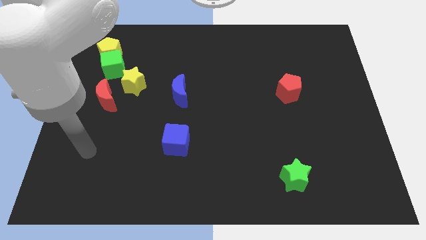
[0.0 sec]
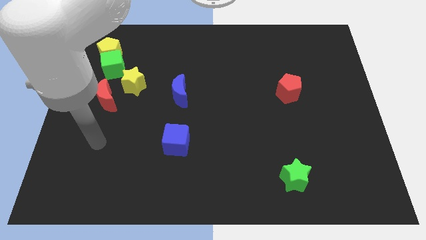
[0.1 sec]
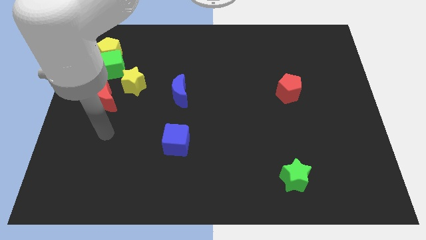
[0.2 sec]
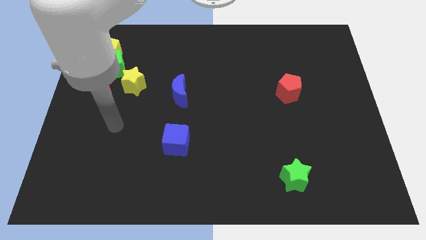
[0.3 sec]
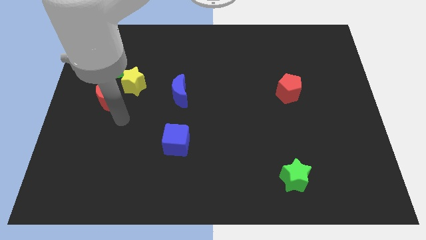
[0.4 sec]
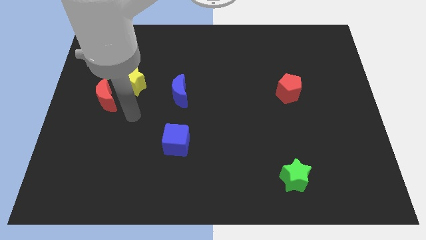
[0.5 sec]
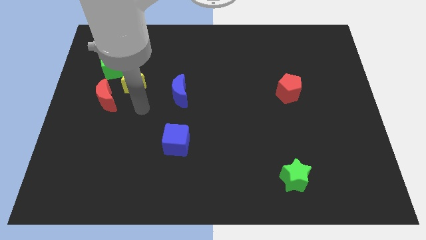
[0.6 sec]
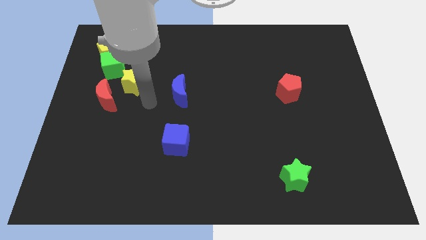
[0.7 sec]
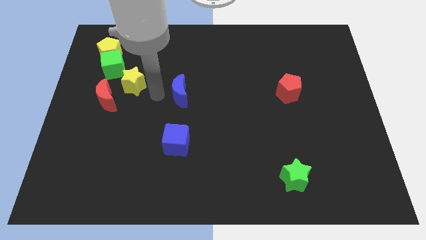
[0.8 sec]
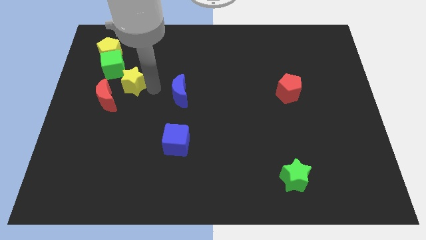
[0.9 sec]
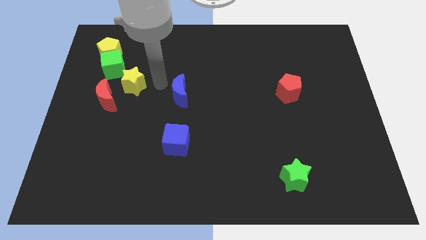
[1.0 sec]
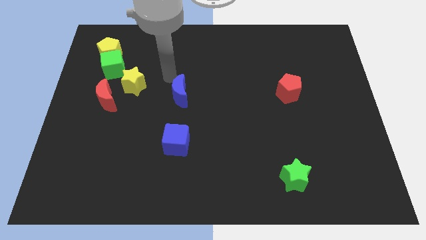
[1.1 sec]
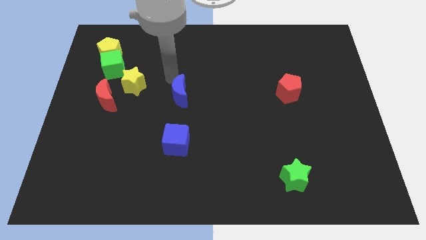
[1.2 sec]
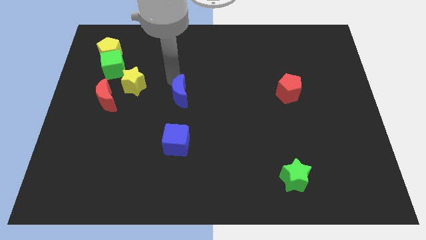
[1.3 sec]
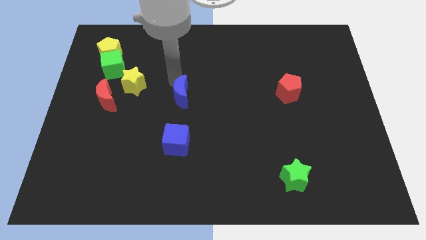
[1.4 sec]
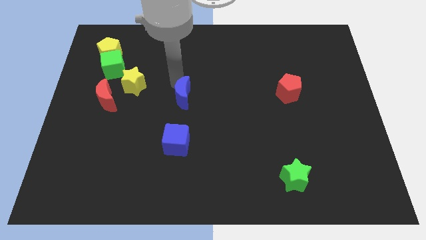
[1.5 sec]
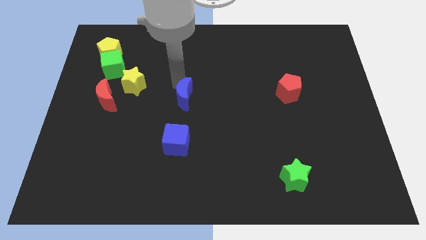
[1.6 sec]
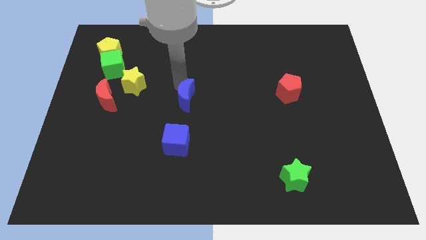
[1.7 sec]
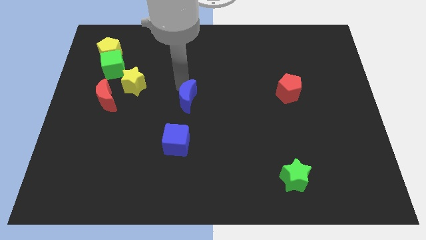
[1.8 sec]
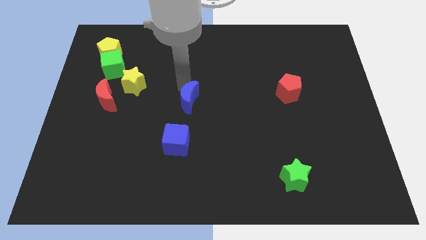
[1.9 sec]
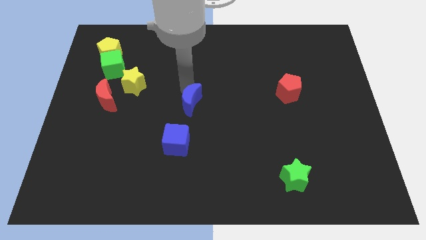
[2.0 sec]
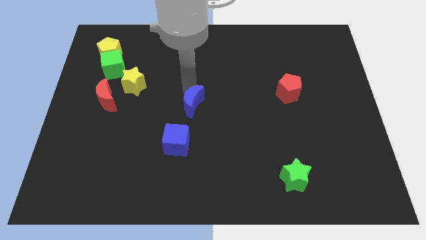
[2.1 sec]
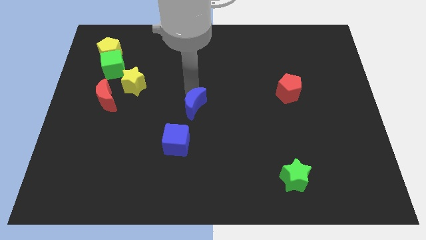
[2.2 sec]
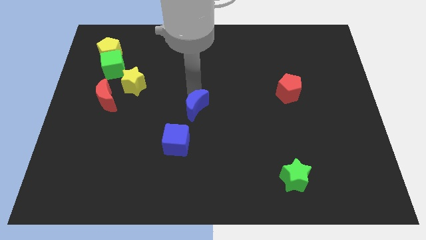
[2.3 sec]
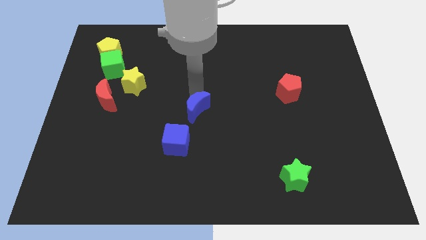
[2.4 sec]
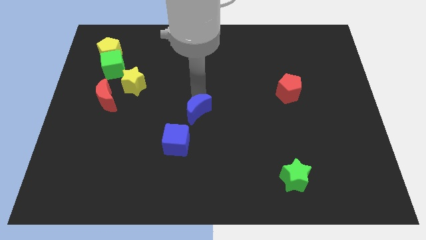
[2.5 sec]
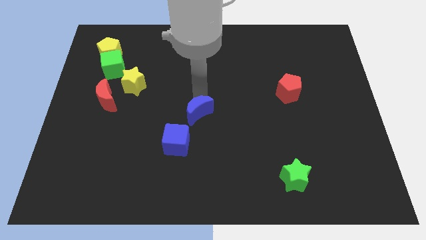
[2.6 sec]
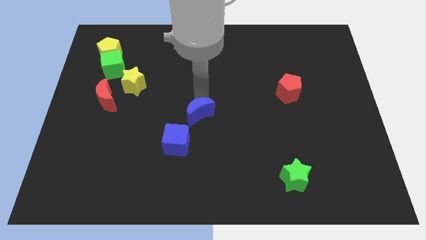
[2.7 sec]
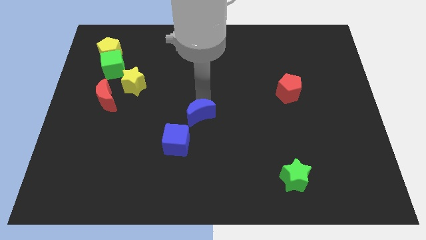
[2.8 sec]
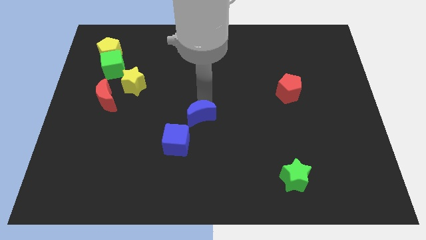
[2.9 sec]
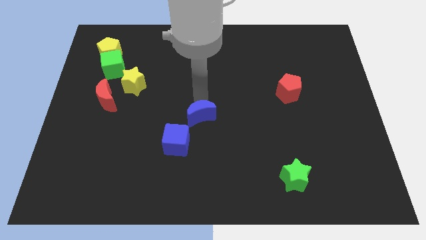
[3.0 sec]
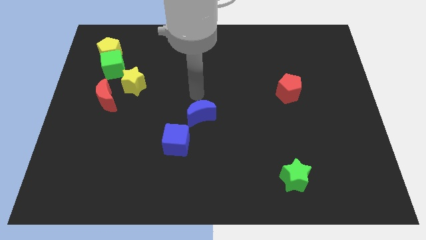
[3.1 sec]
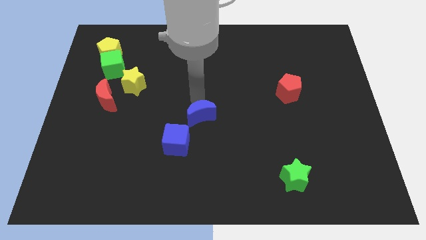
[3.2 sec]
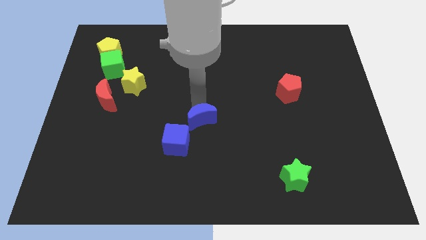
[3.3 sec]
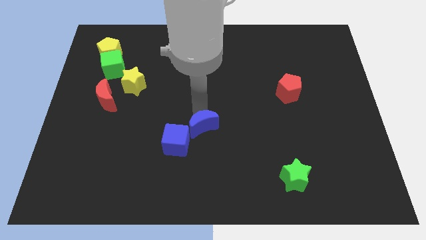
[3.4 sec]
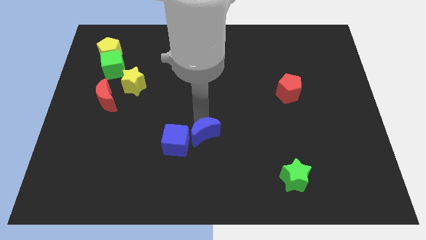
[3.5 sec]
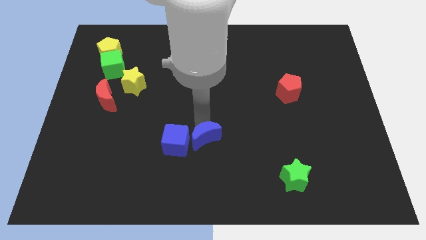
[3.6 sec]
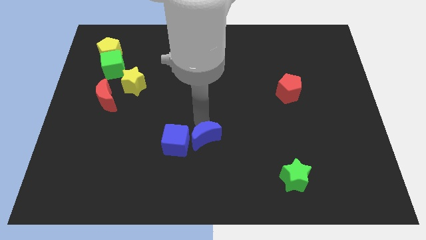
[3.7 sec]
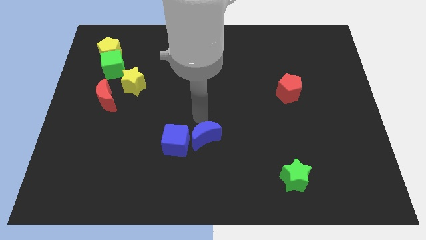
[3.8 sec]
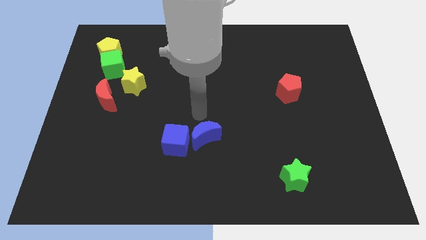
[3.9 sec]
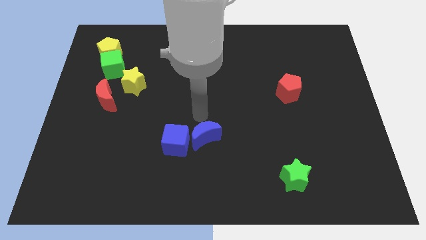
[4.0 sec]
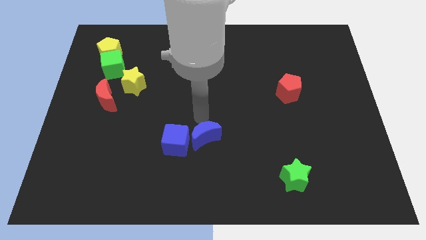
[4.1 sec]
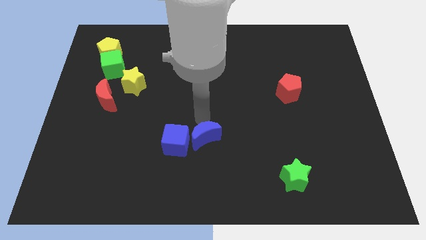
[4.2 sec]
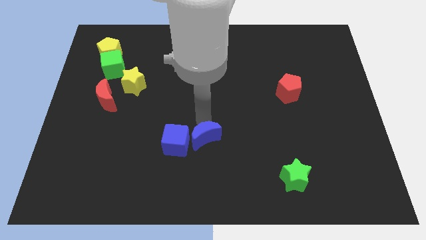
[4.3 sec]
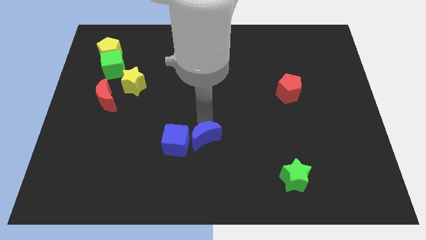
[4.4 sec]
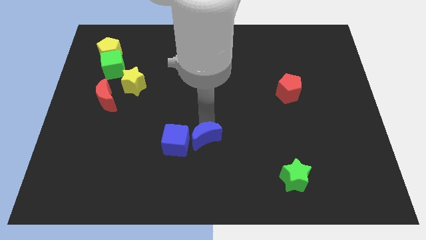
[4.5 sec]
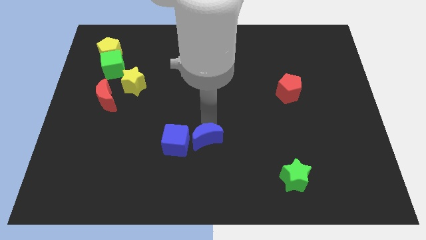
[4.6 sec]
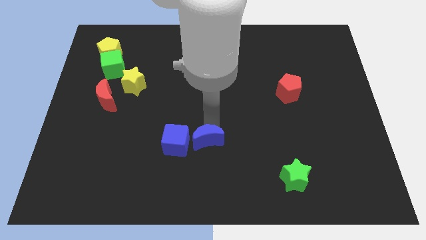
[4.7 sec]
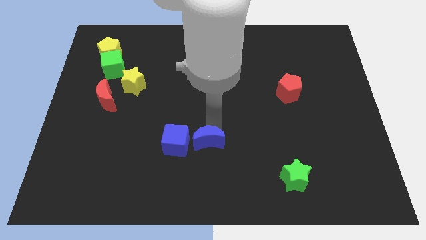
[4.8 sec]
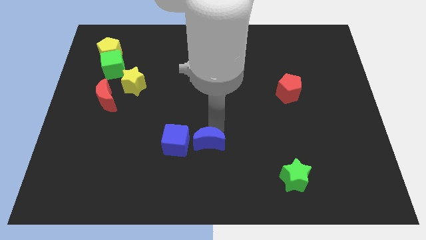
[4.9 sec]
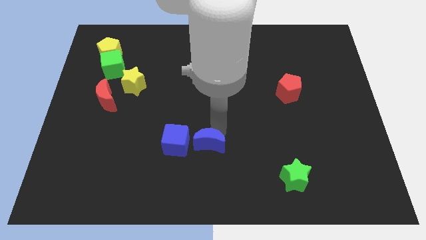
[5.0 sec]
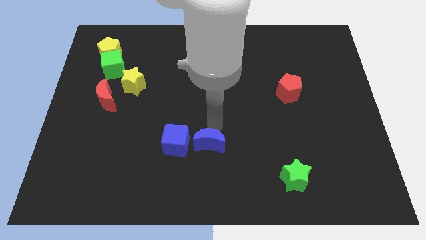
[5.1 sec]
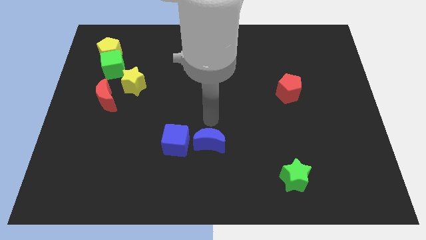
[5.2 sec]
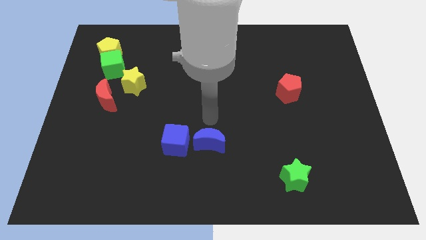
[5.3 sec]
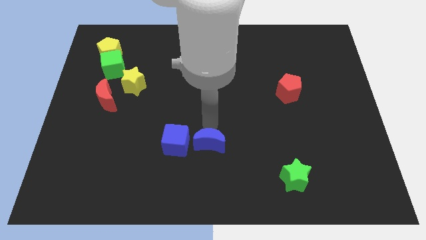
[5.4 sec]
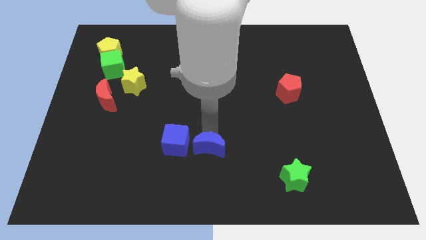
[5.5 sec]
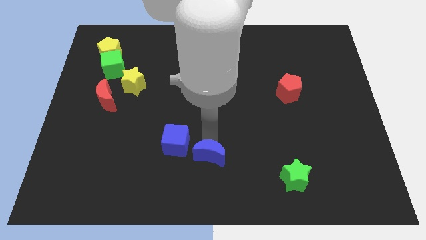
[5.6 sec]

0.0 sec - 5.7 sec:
put the blue moon to the bottom side
